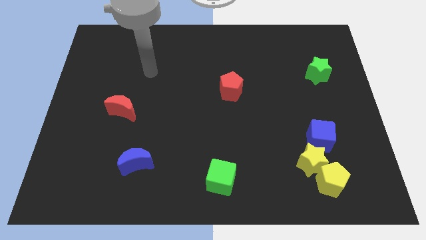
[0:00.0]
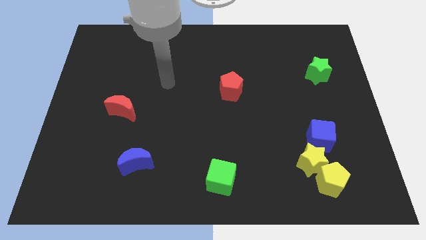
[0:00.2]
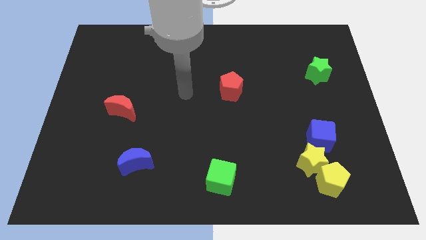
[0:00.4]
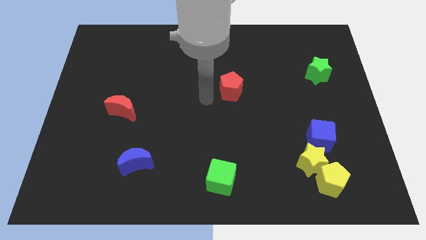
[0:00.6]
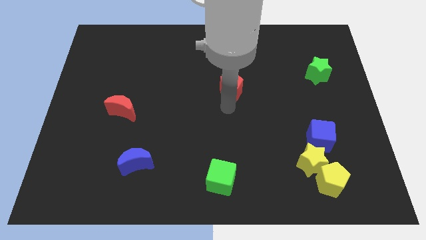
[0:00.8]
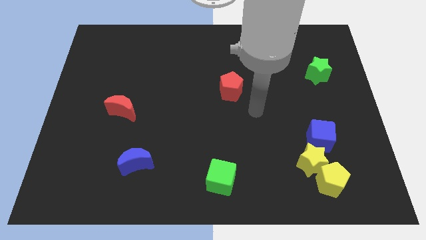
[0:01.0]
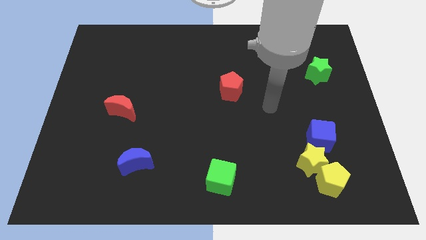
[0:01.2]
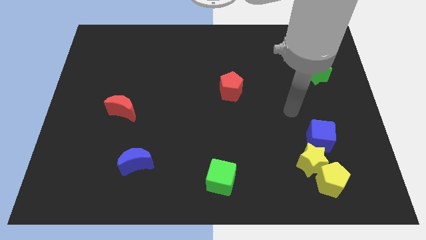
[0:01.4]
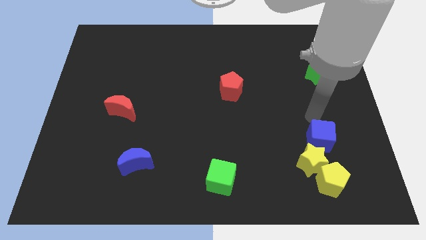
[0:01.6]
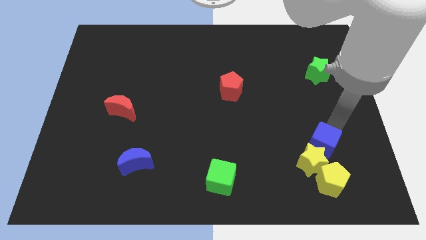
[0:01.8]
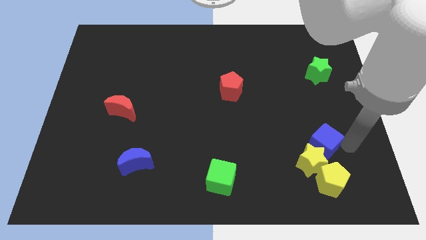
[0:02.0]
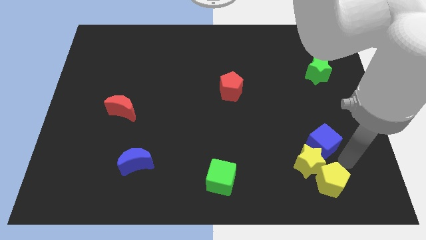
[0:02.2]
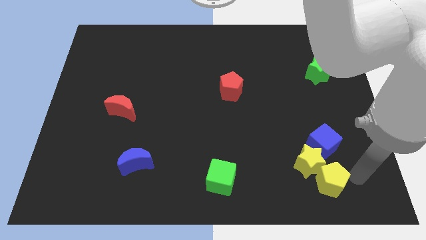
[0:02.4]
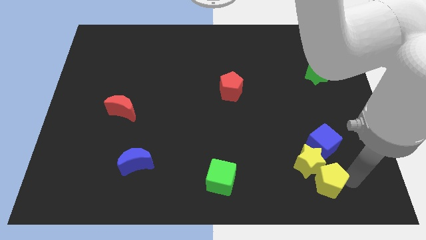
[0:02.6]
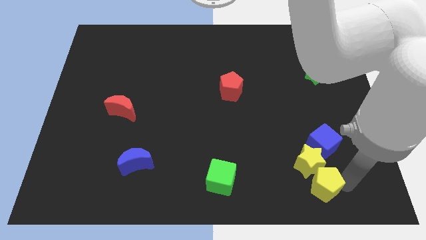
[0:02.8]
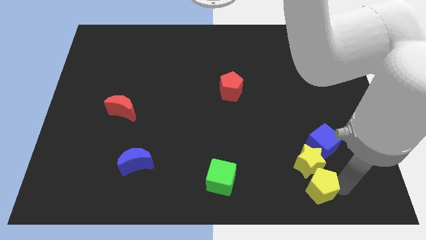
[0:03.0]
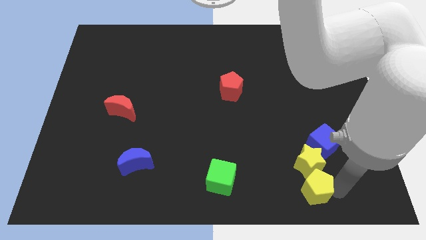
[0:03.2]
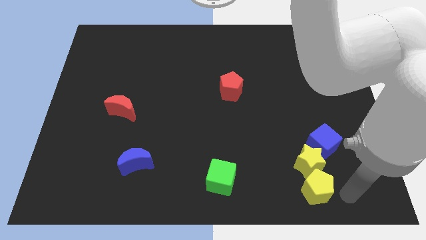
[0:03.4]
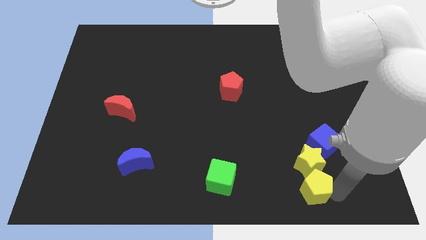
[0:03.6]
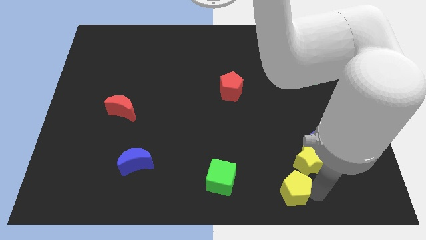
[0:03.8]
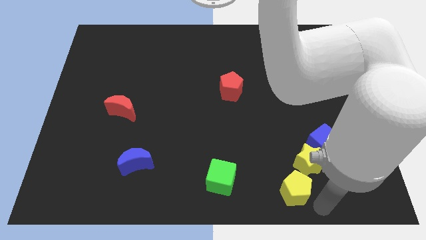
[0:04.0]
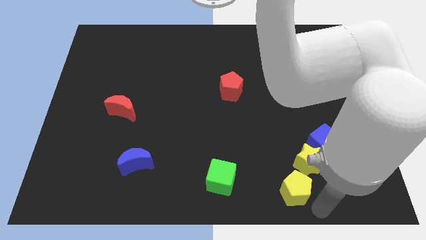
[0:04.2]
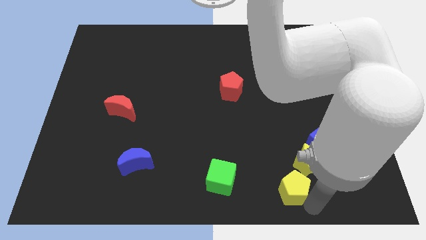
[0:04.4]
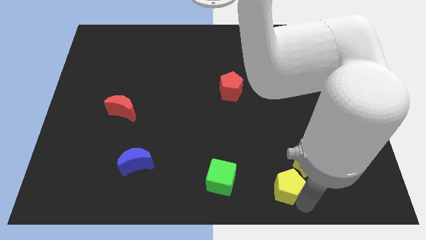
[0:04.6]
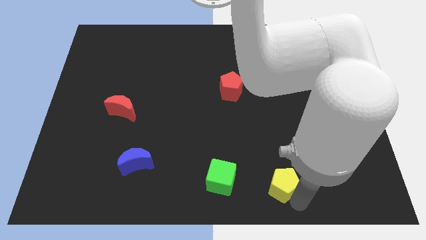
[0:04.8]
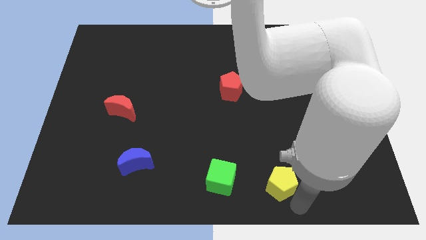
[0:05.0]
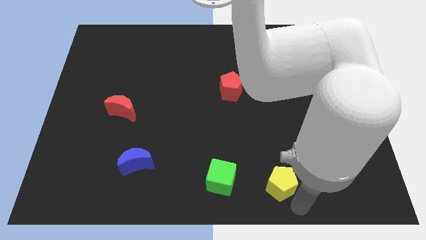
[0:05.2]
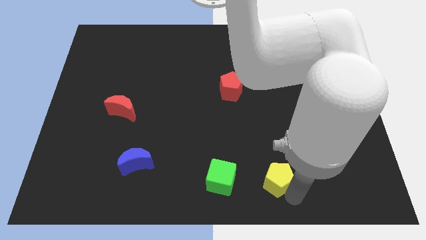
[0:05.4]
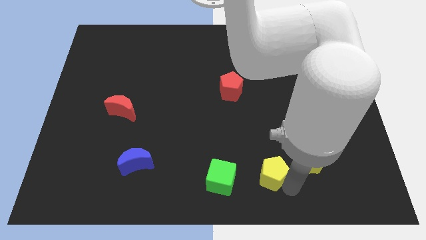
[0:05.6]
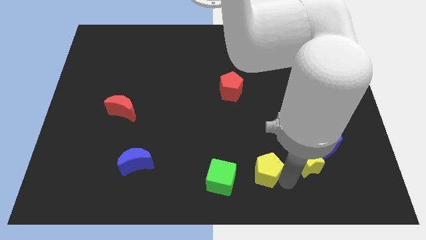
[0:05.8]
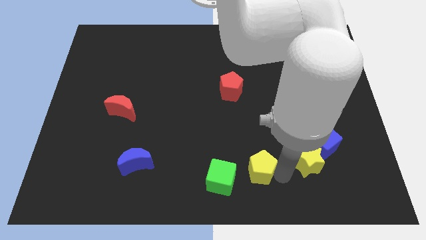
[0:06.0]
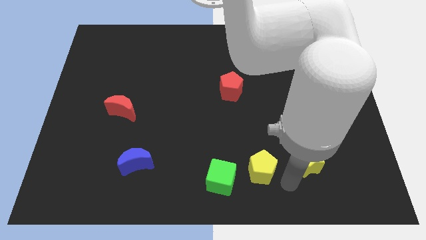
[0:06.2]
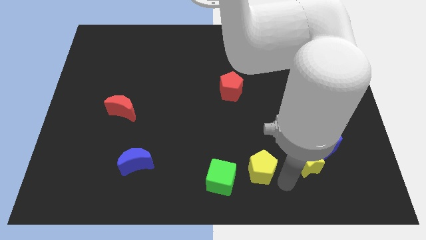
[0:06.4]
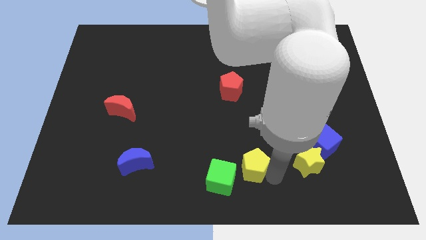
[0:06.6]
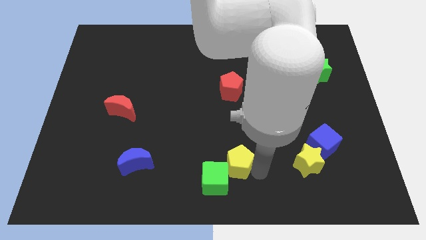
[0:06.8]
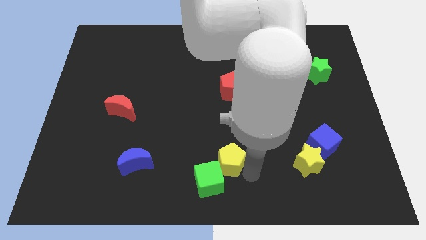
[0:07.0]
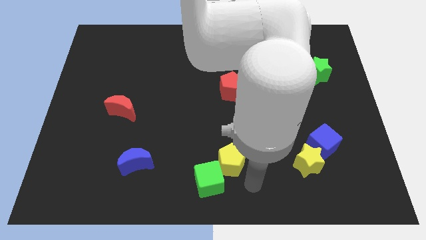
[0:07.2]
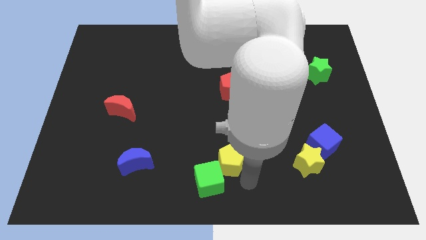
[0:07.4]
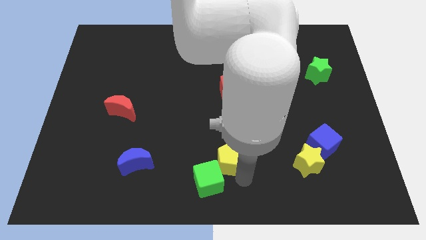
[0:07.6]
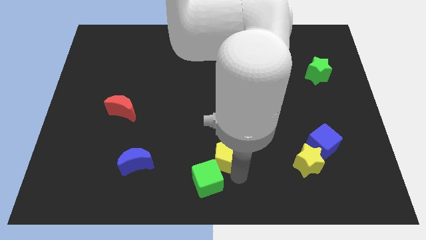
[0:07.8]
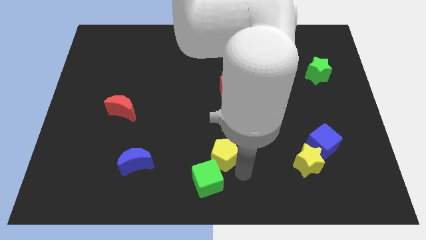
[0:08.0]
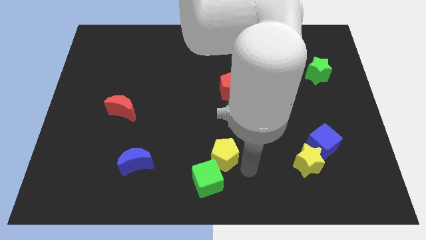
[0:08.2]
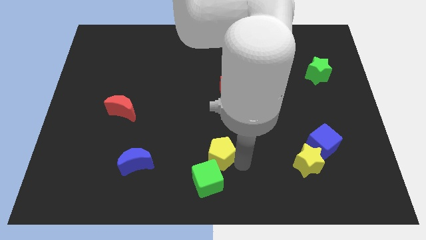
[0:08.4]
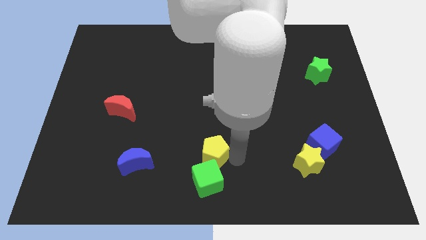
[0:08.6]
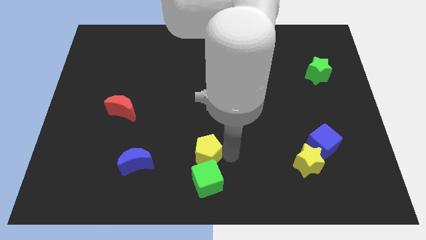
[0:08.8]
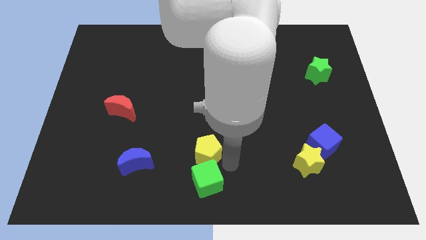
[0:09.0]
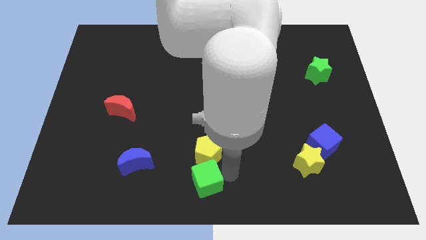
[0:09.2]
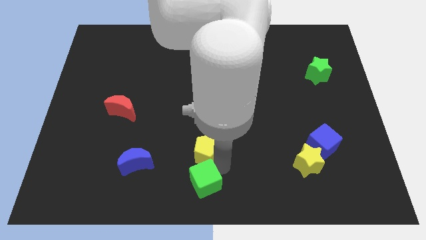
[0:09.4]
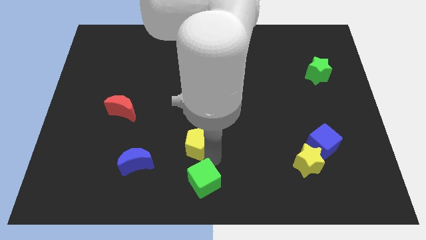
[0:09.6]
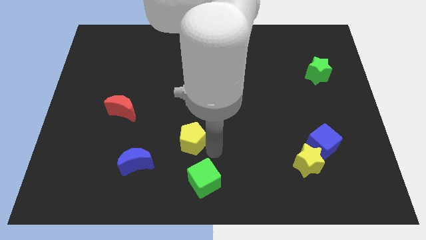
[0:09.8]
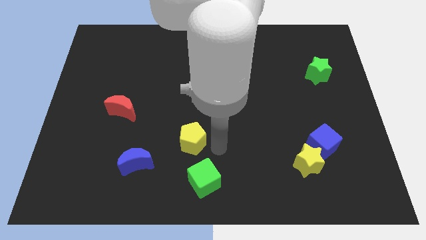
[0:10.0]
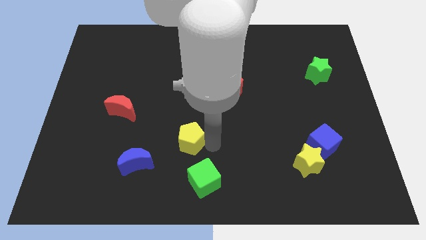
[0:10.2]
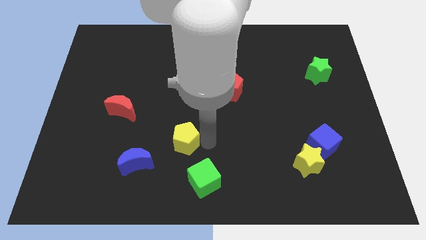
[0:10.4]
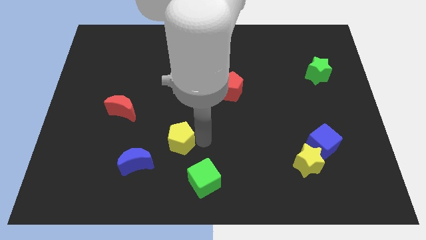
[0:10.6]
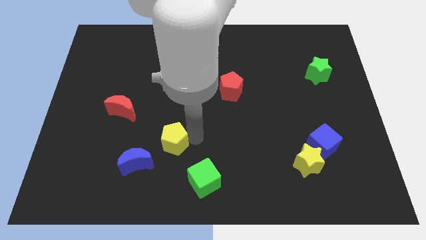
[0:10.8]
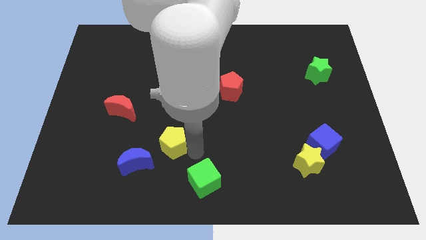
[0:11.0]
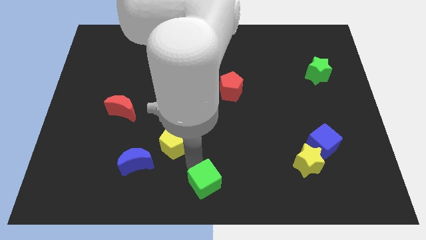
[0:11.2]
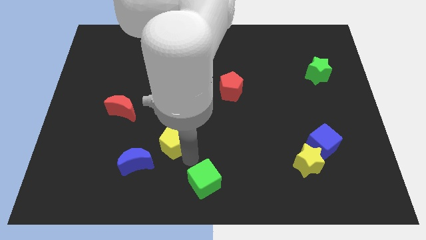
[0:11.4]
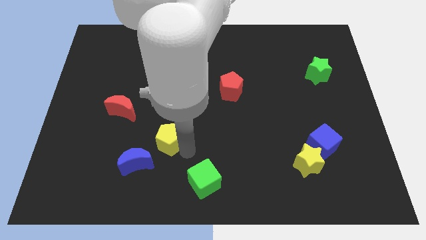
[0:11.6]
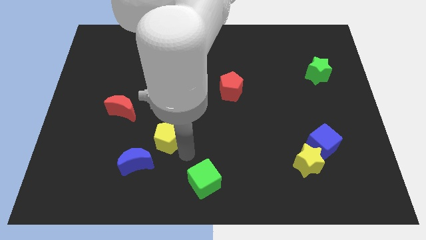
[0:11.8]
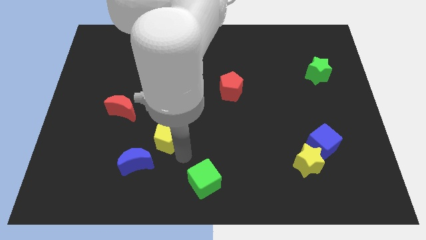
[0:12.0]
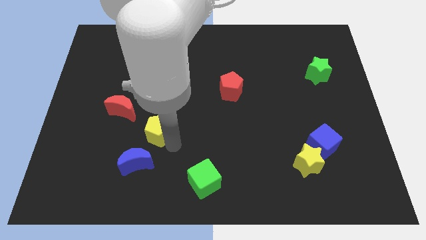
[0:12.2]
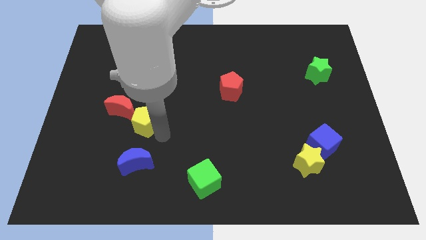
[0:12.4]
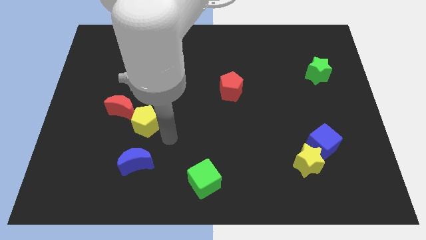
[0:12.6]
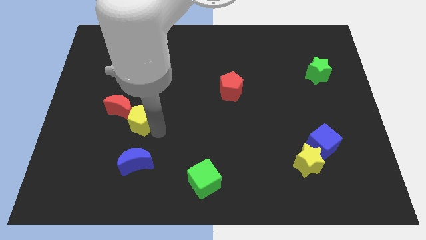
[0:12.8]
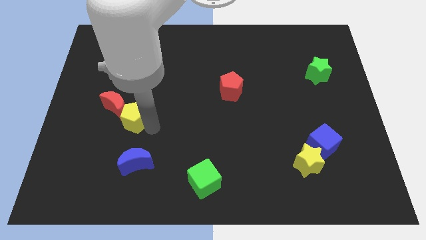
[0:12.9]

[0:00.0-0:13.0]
push the yellow pentagon next to the red moon

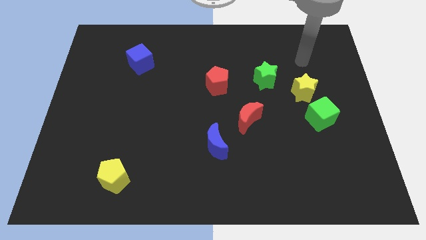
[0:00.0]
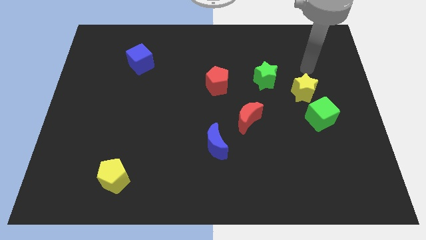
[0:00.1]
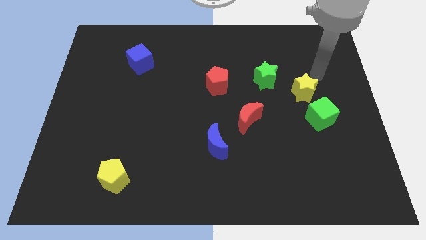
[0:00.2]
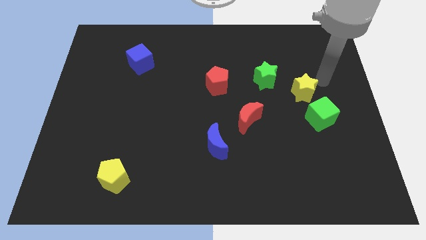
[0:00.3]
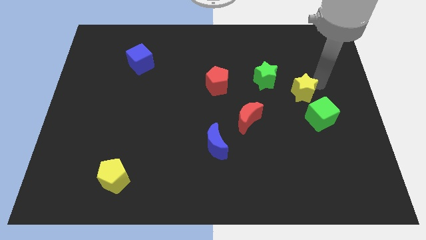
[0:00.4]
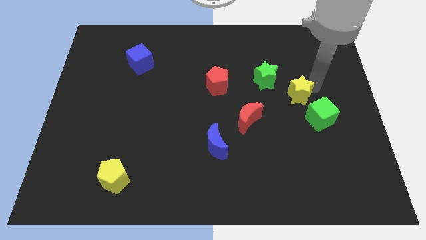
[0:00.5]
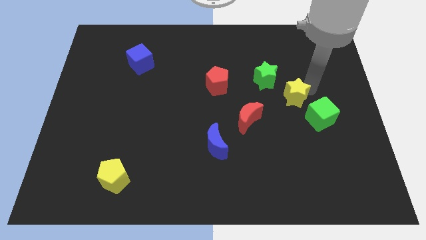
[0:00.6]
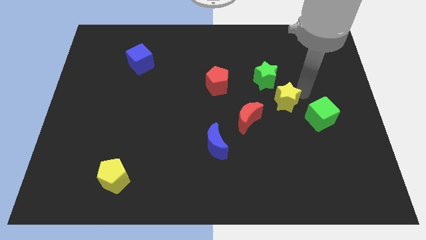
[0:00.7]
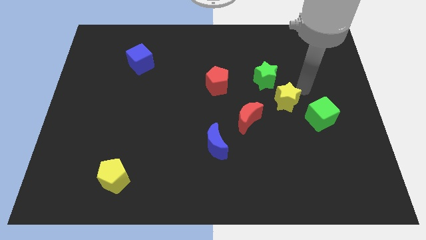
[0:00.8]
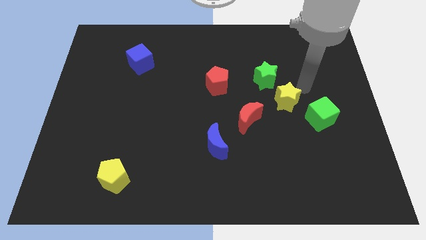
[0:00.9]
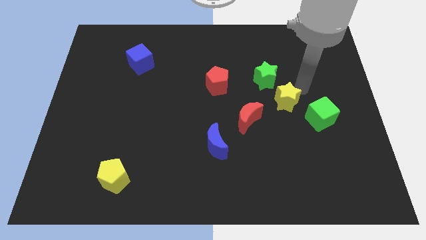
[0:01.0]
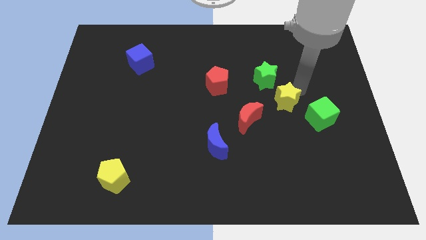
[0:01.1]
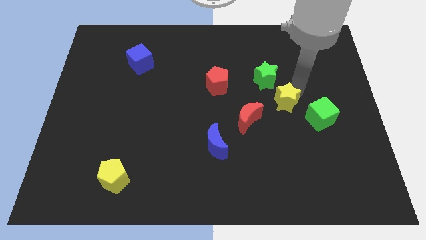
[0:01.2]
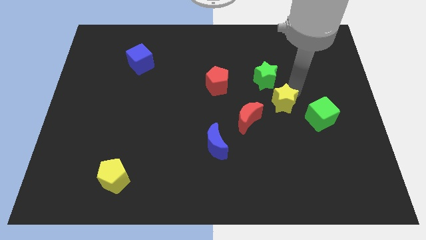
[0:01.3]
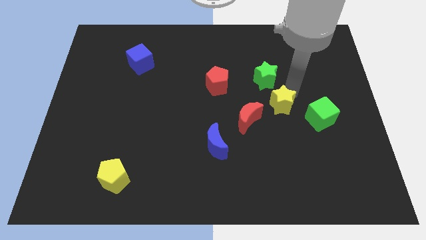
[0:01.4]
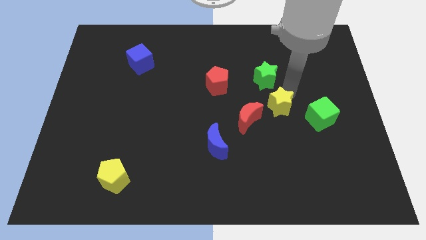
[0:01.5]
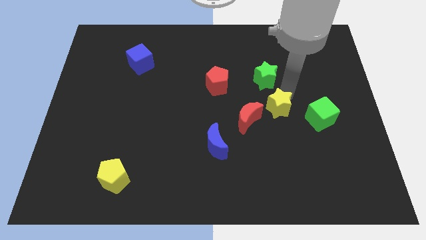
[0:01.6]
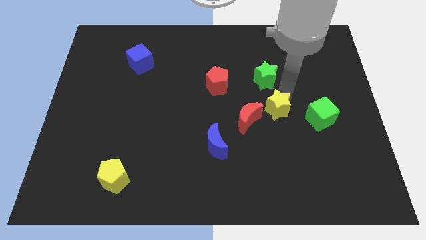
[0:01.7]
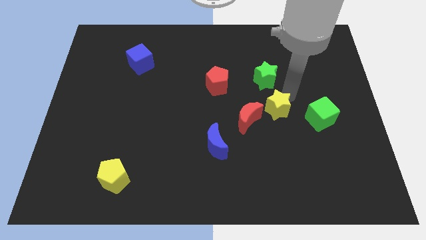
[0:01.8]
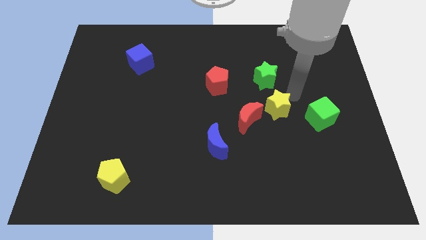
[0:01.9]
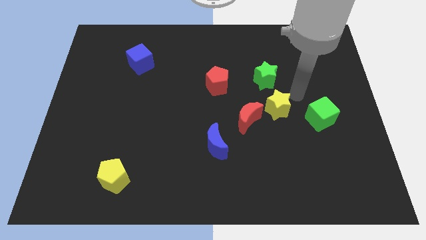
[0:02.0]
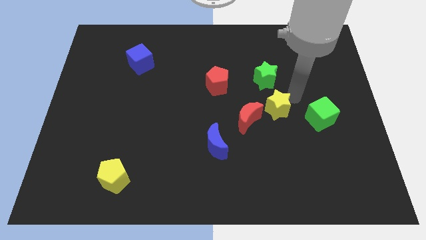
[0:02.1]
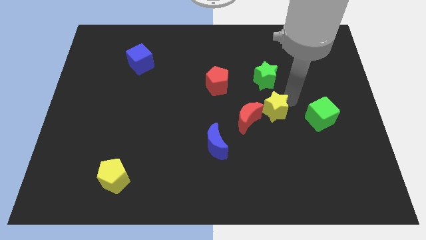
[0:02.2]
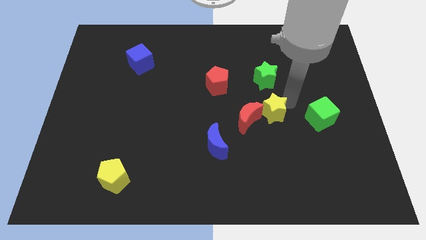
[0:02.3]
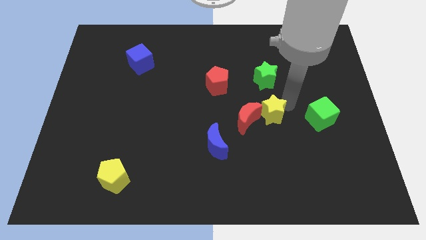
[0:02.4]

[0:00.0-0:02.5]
move the yellow star to the red moon
